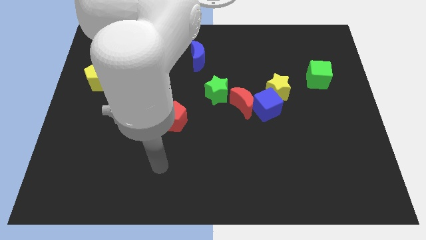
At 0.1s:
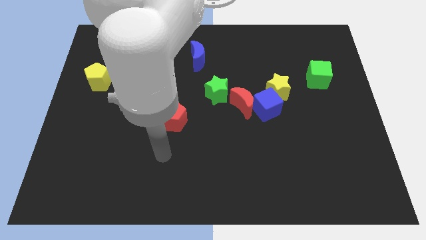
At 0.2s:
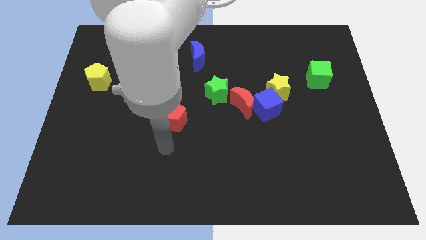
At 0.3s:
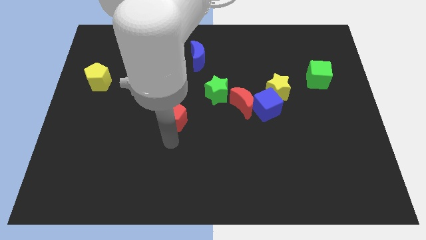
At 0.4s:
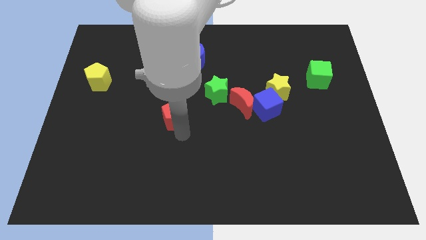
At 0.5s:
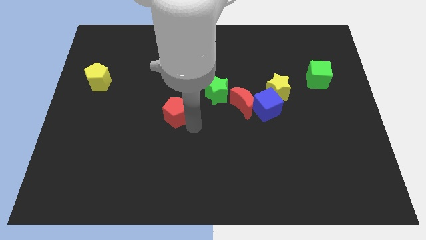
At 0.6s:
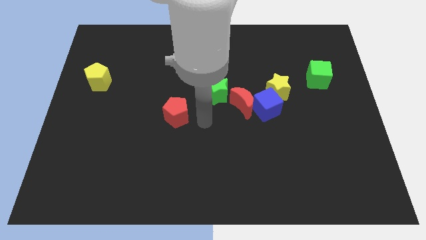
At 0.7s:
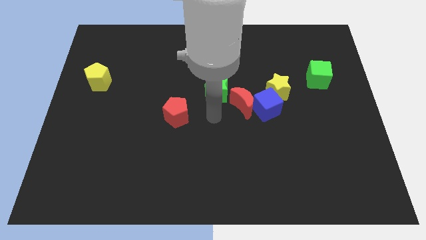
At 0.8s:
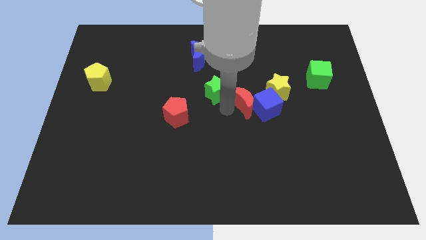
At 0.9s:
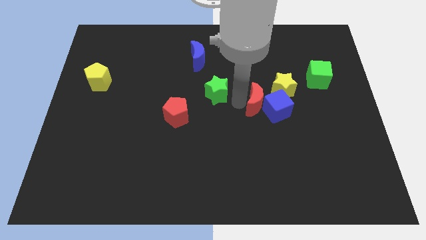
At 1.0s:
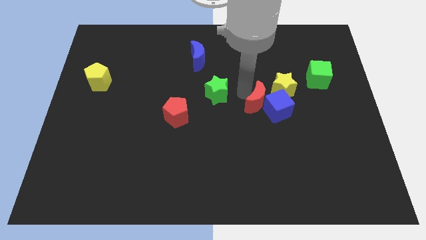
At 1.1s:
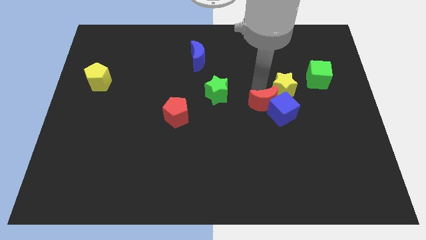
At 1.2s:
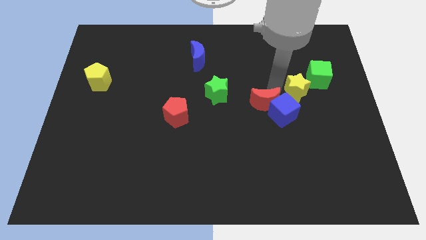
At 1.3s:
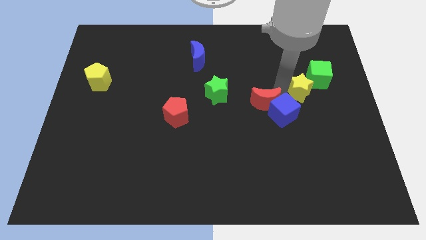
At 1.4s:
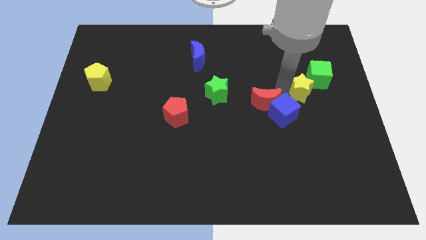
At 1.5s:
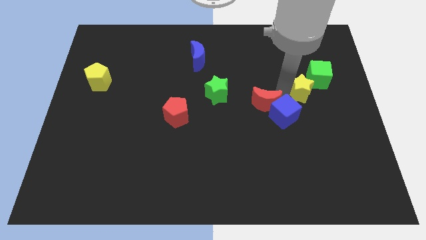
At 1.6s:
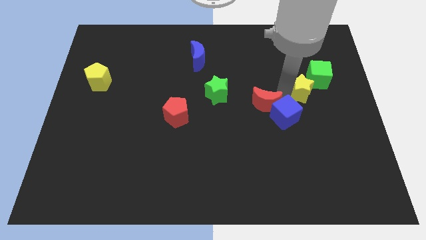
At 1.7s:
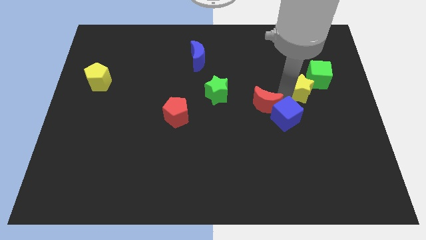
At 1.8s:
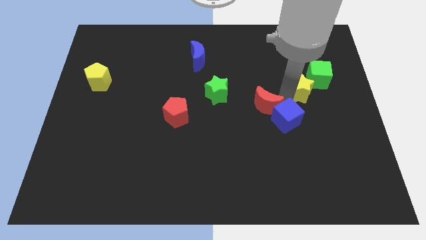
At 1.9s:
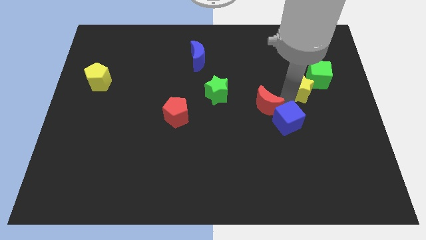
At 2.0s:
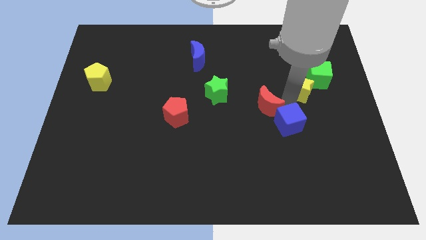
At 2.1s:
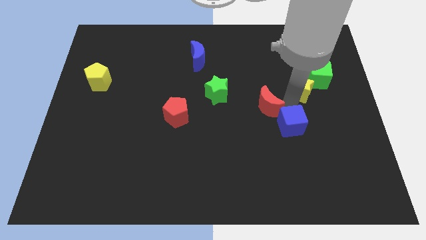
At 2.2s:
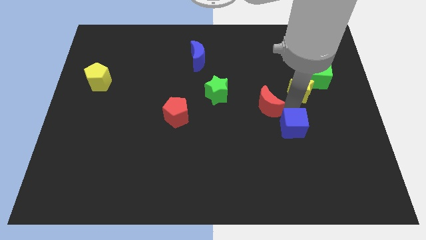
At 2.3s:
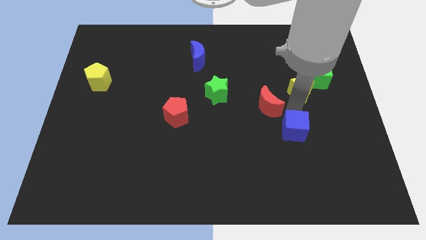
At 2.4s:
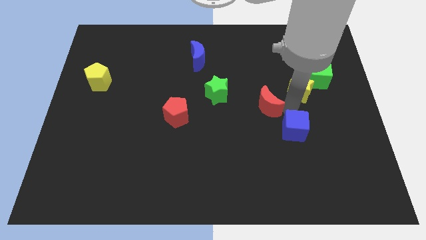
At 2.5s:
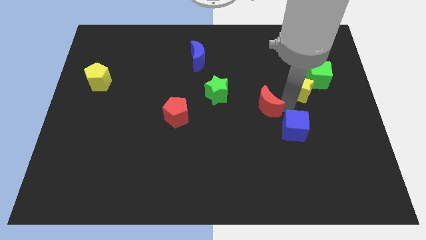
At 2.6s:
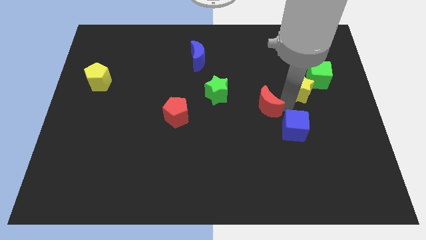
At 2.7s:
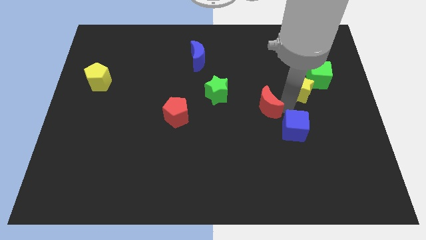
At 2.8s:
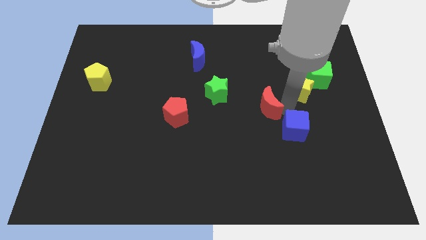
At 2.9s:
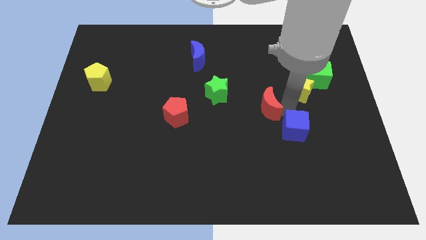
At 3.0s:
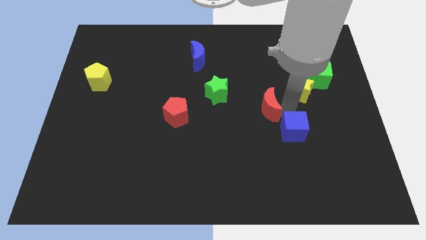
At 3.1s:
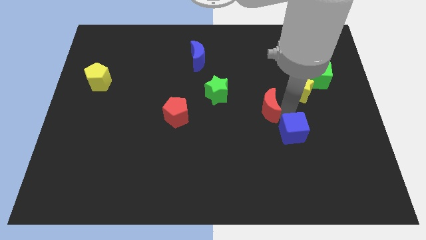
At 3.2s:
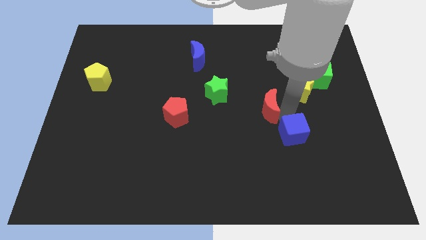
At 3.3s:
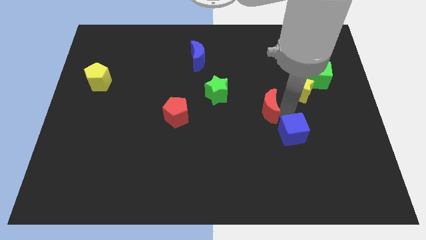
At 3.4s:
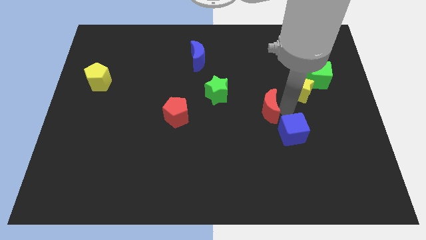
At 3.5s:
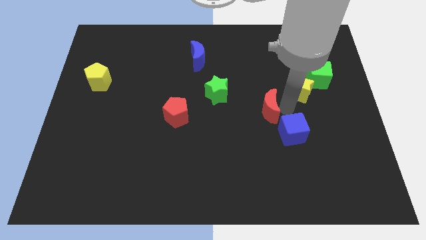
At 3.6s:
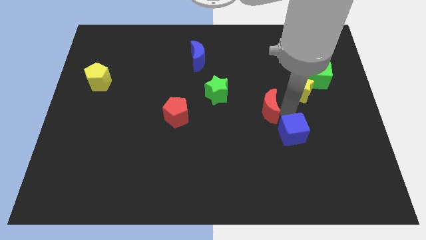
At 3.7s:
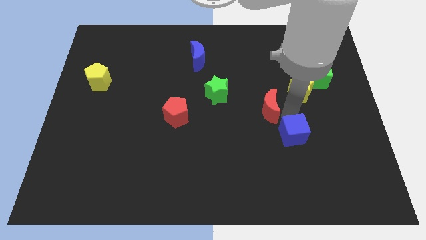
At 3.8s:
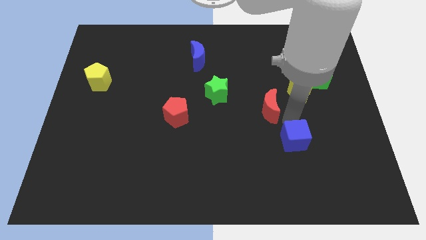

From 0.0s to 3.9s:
pull the blue cube apart from the red moon and yellow star

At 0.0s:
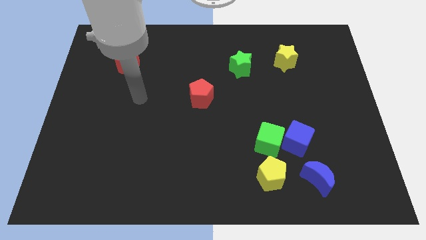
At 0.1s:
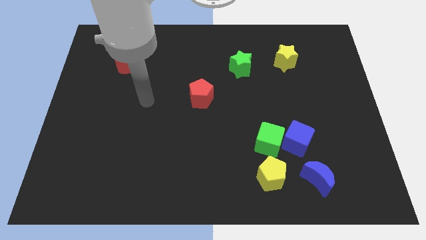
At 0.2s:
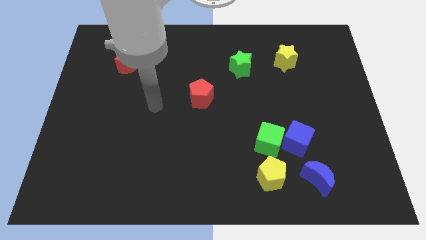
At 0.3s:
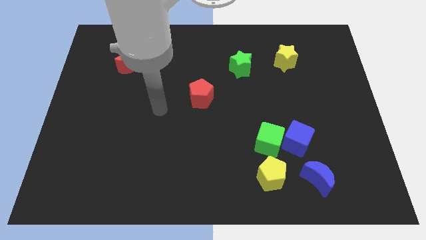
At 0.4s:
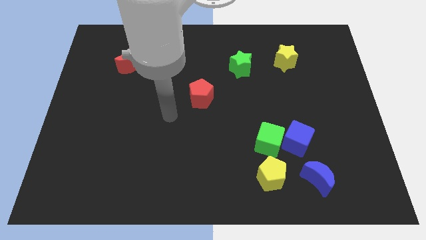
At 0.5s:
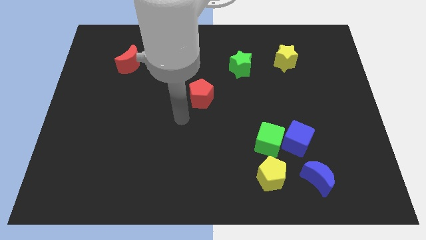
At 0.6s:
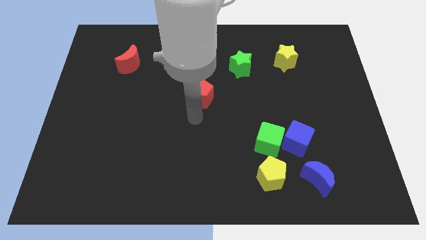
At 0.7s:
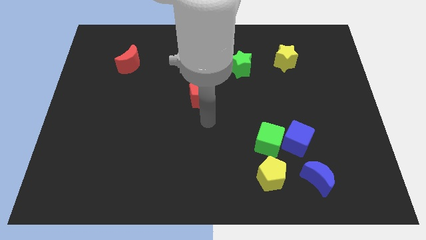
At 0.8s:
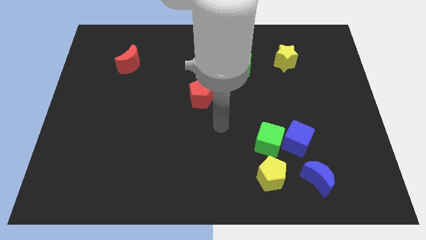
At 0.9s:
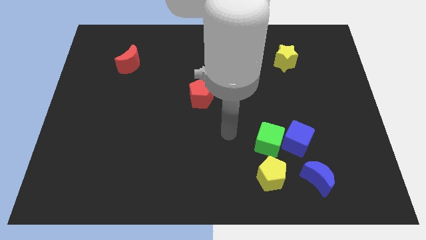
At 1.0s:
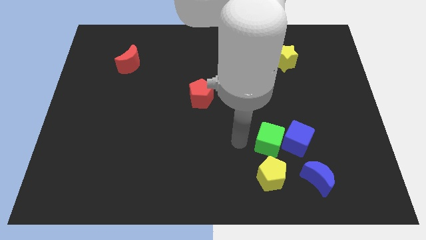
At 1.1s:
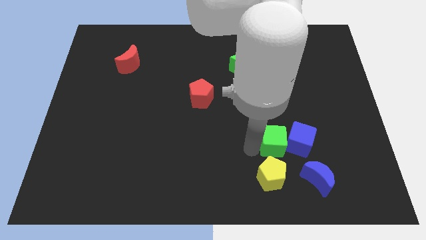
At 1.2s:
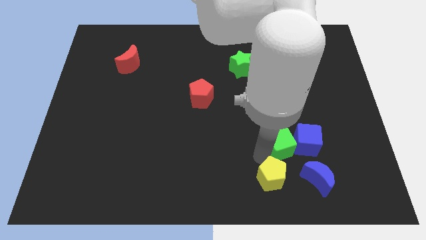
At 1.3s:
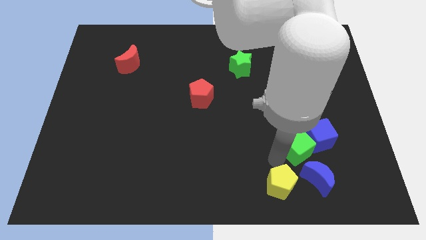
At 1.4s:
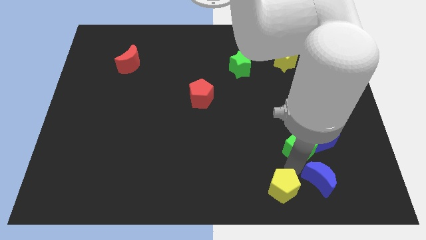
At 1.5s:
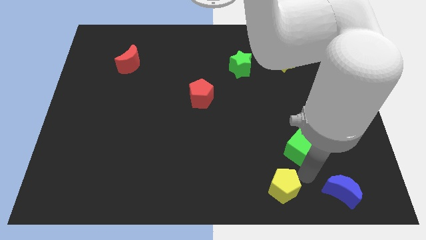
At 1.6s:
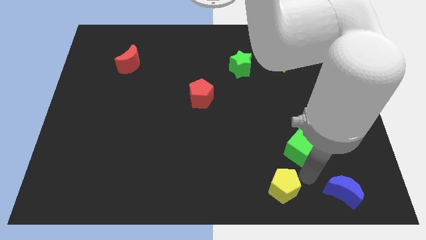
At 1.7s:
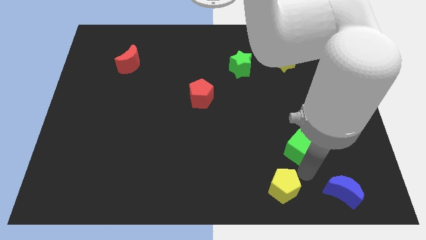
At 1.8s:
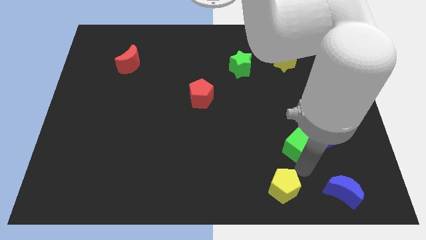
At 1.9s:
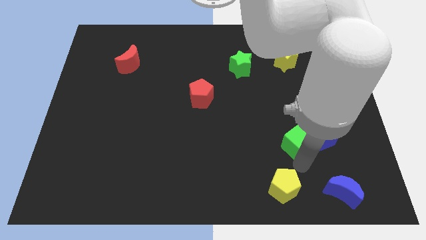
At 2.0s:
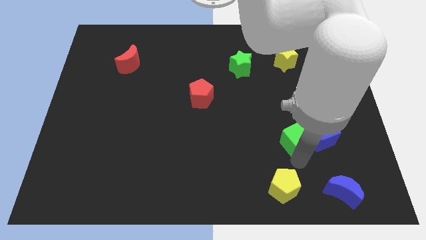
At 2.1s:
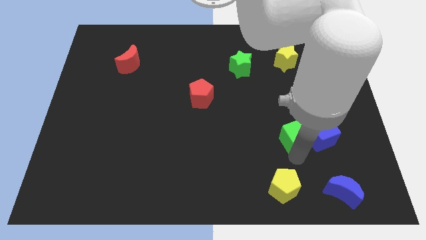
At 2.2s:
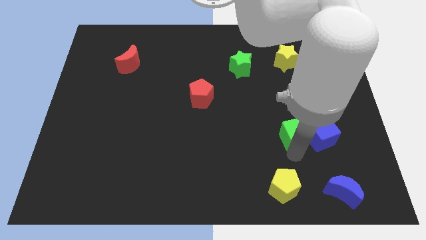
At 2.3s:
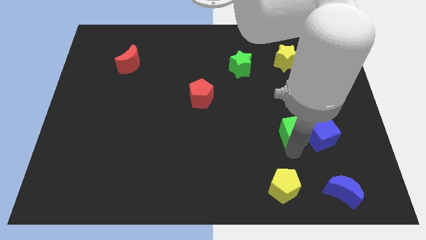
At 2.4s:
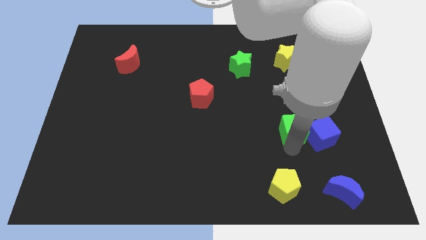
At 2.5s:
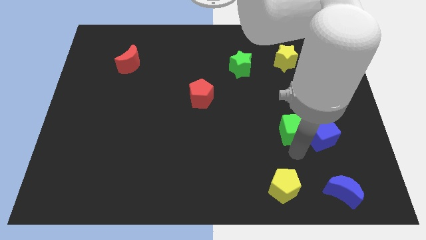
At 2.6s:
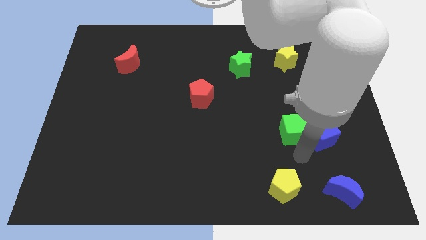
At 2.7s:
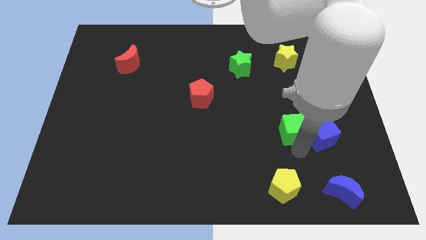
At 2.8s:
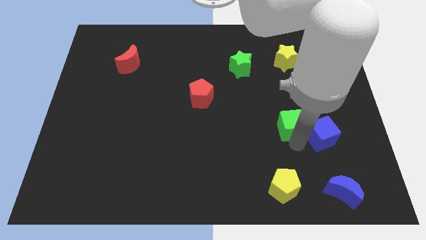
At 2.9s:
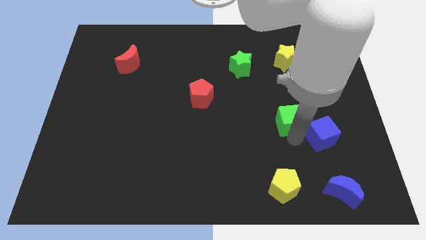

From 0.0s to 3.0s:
pull the green cube apart from the blue cube and yellow pentagon

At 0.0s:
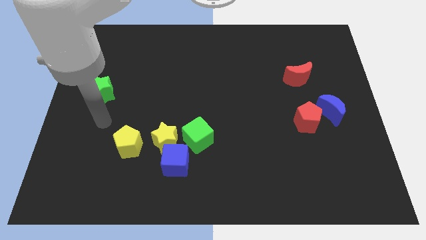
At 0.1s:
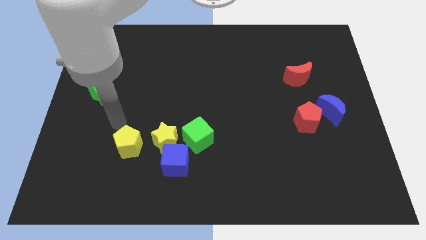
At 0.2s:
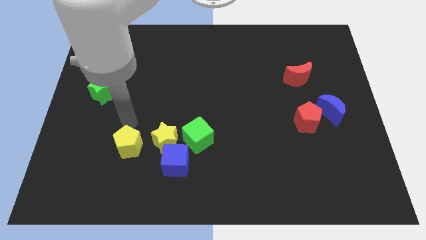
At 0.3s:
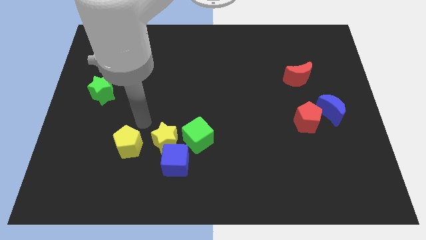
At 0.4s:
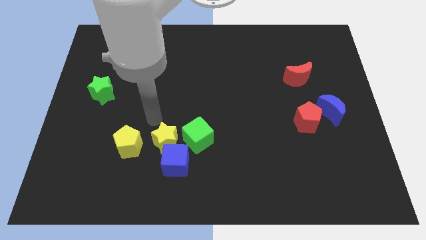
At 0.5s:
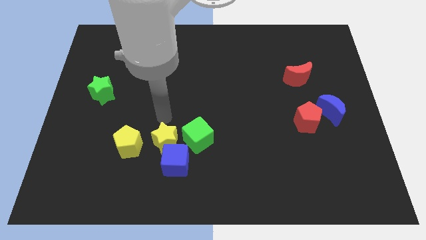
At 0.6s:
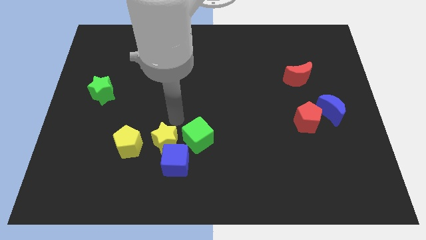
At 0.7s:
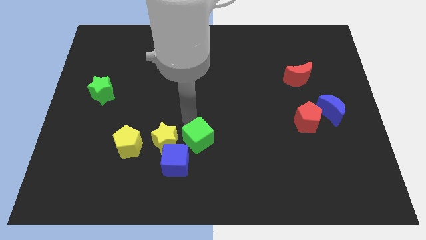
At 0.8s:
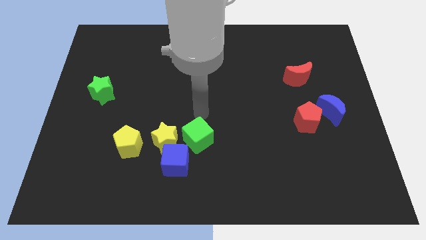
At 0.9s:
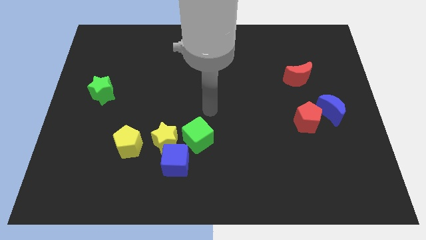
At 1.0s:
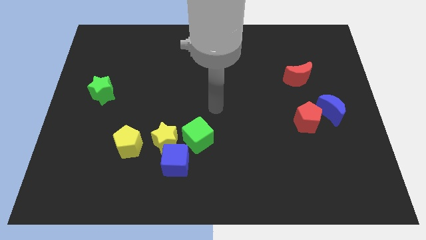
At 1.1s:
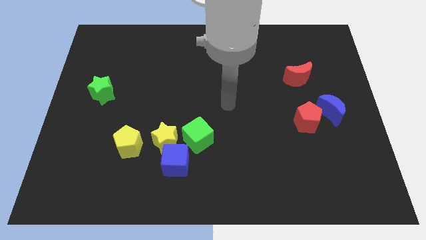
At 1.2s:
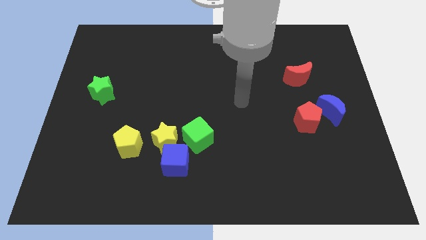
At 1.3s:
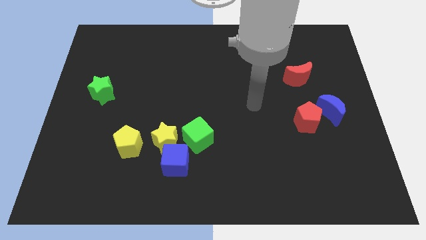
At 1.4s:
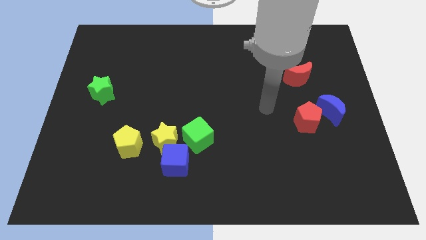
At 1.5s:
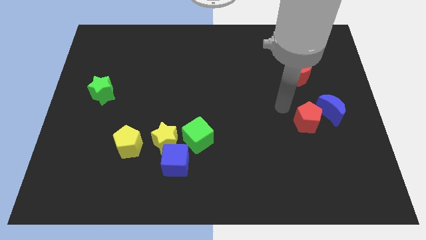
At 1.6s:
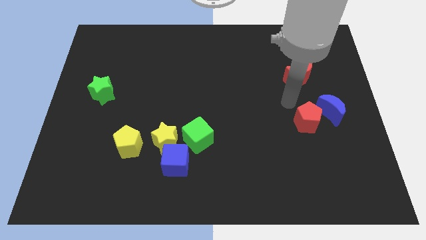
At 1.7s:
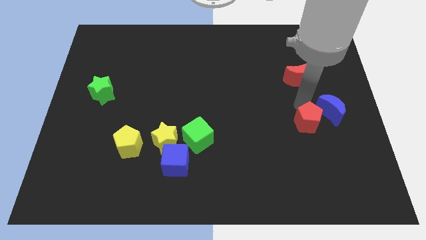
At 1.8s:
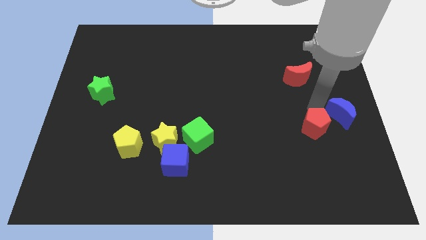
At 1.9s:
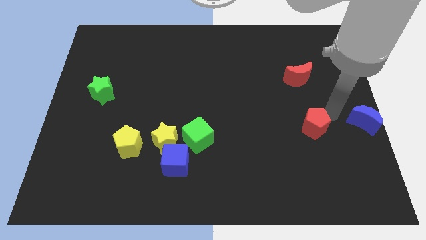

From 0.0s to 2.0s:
separate the red pentagon from the blue moon

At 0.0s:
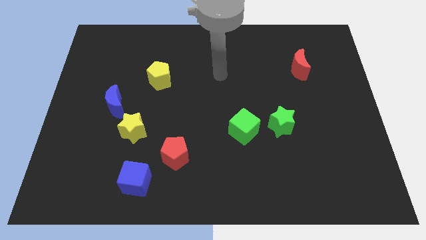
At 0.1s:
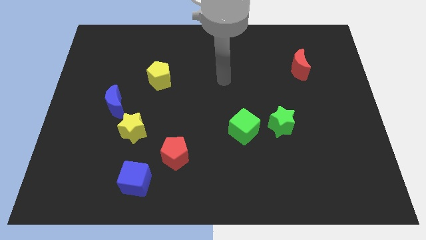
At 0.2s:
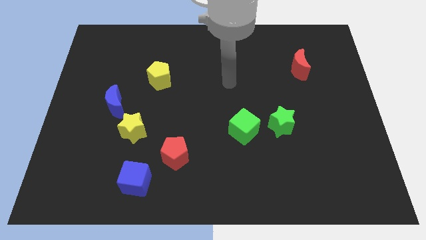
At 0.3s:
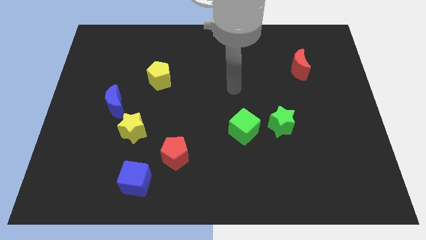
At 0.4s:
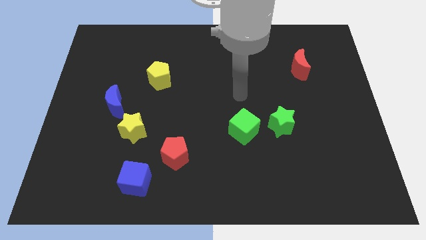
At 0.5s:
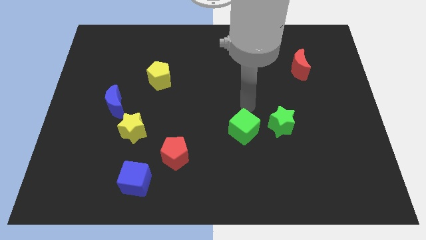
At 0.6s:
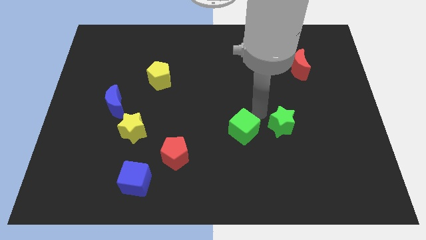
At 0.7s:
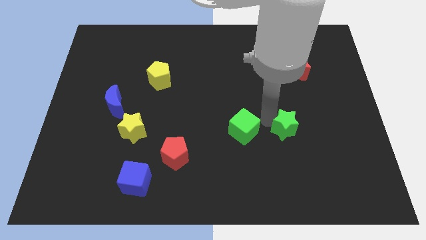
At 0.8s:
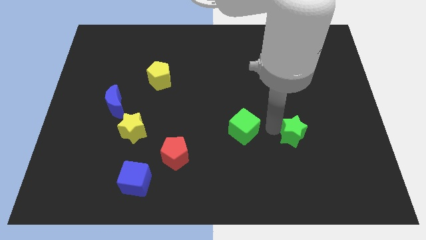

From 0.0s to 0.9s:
pull the green cube apart from the green star
